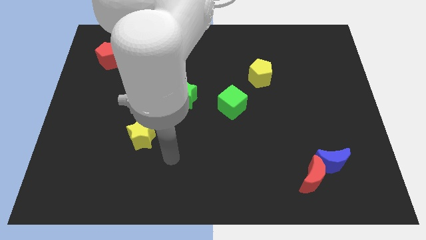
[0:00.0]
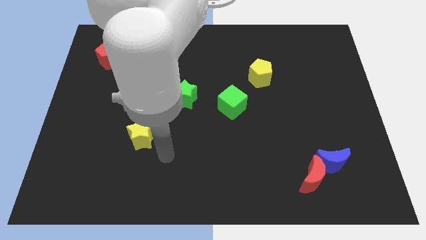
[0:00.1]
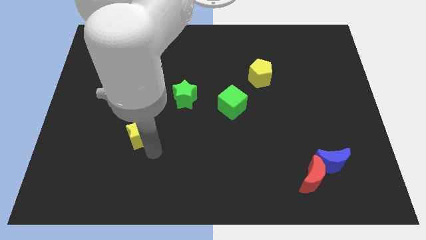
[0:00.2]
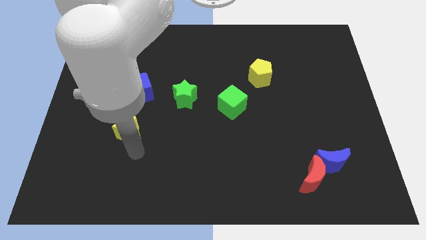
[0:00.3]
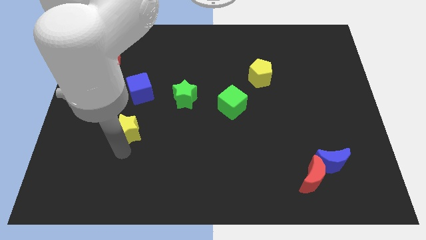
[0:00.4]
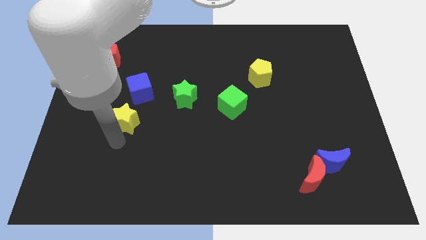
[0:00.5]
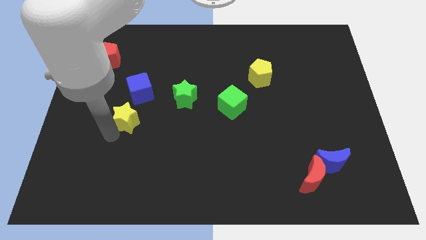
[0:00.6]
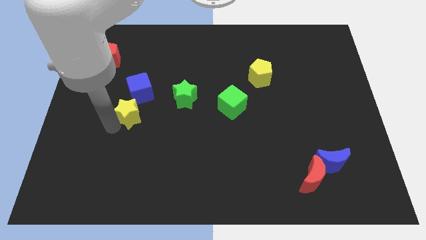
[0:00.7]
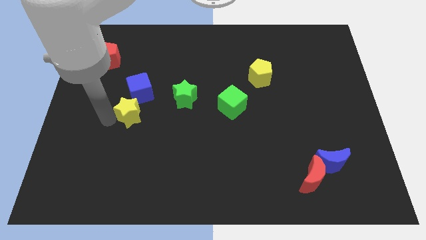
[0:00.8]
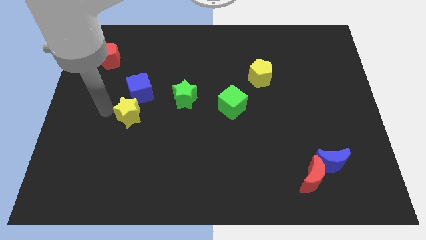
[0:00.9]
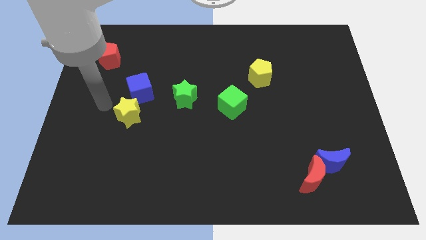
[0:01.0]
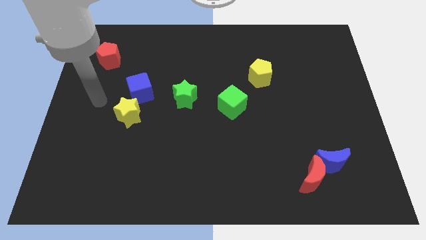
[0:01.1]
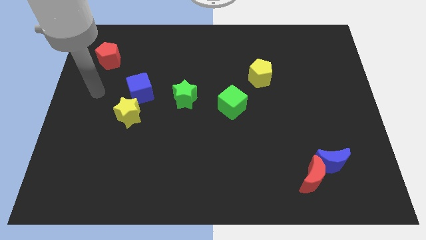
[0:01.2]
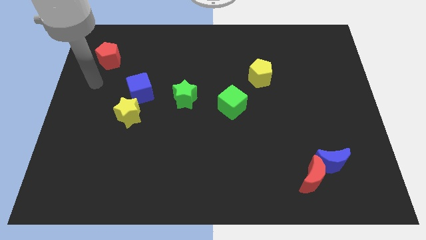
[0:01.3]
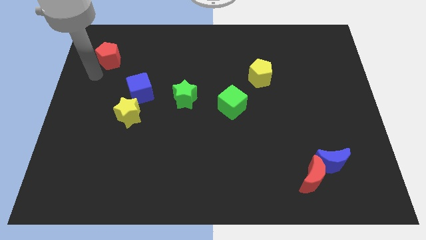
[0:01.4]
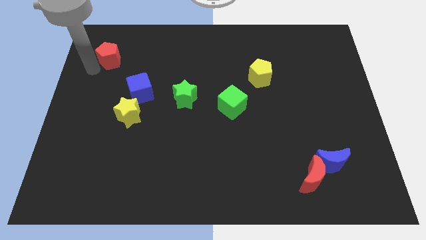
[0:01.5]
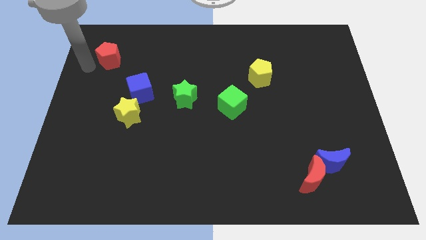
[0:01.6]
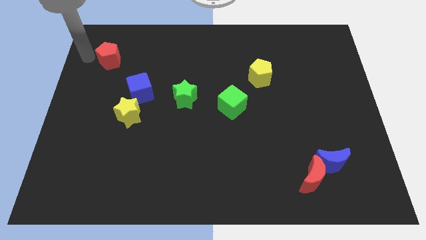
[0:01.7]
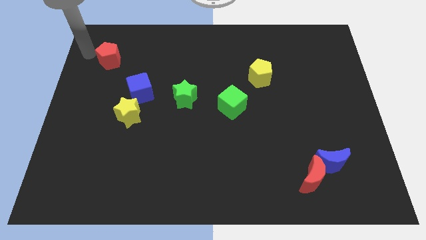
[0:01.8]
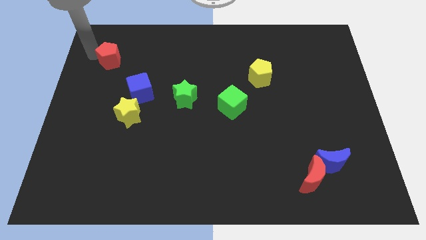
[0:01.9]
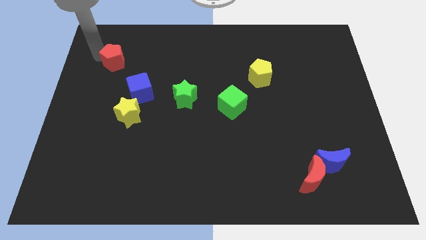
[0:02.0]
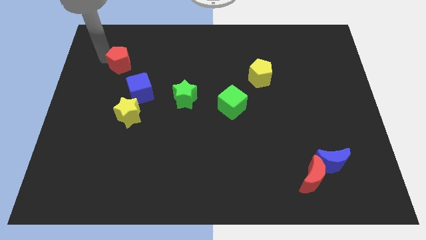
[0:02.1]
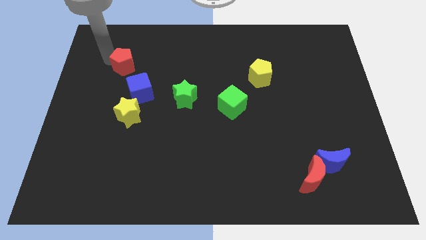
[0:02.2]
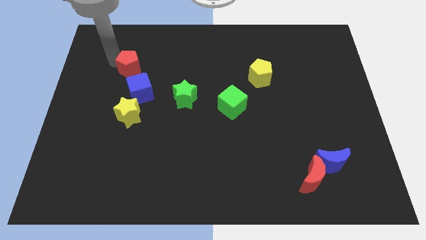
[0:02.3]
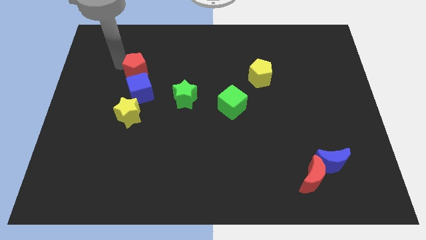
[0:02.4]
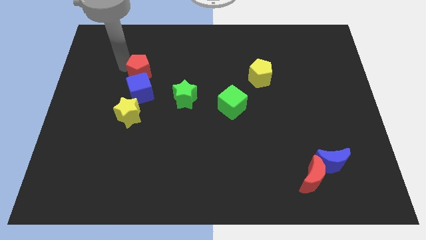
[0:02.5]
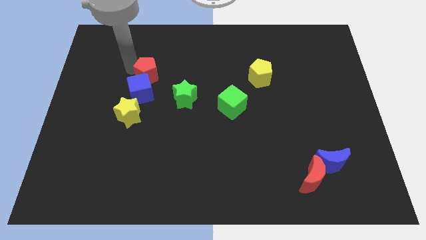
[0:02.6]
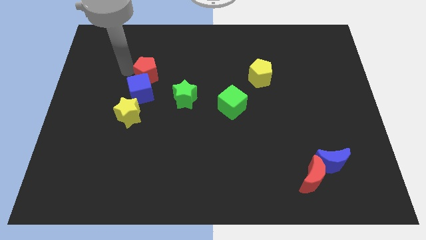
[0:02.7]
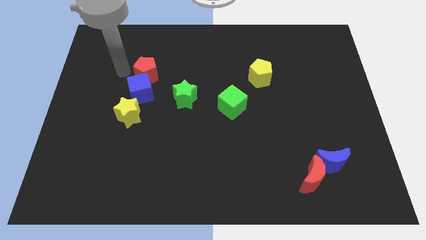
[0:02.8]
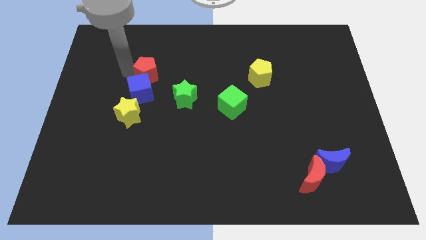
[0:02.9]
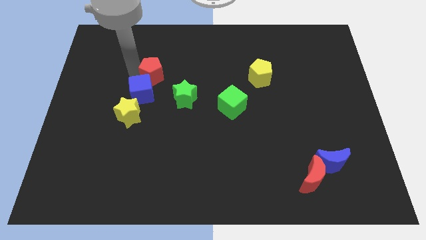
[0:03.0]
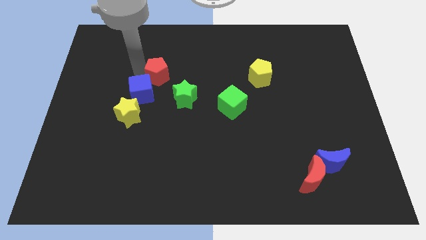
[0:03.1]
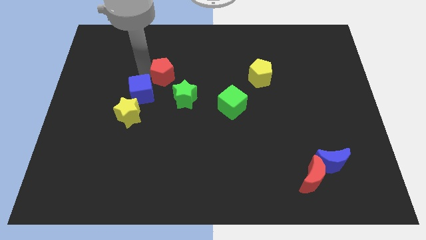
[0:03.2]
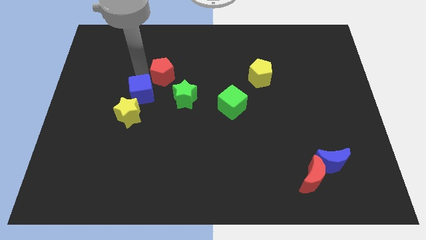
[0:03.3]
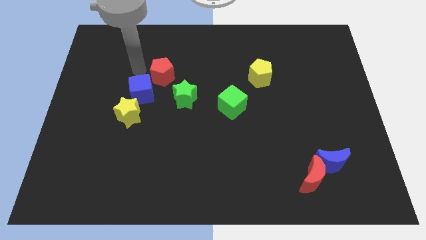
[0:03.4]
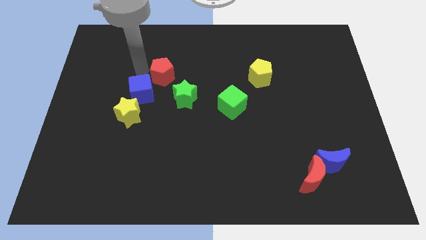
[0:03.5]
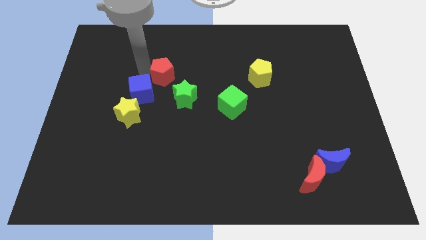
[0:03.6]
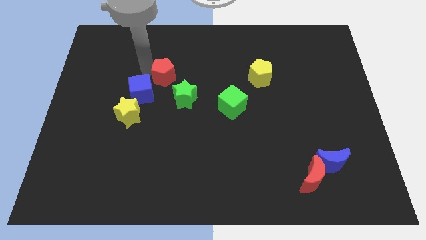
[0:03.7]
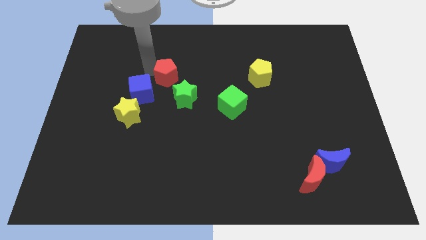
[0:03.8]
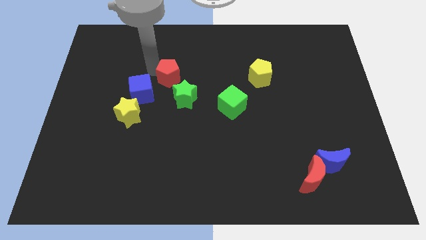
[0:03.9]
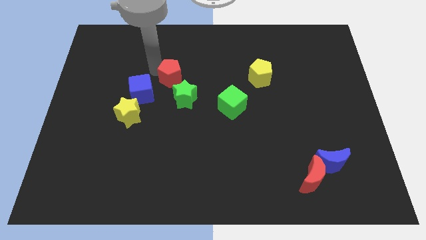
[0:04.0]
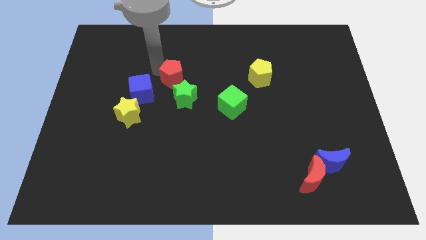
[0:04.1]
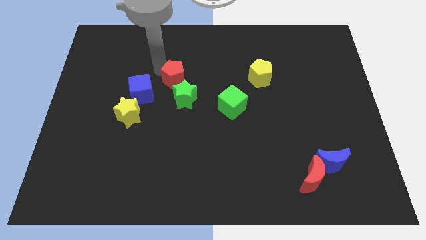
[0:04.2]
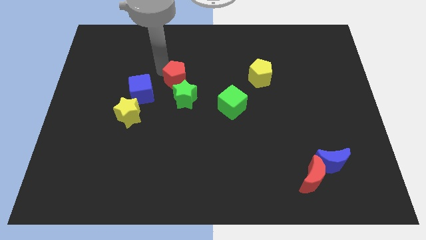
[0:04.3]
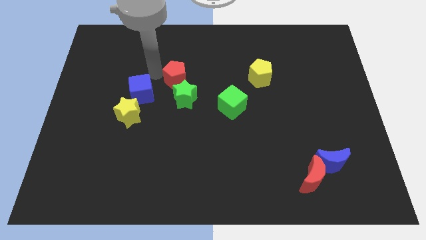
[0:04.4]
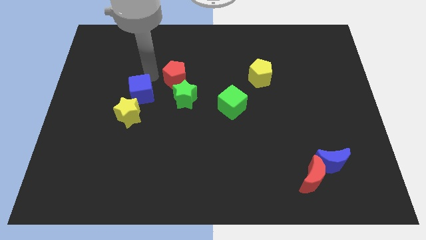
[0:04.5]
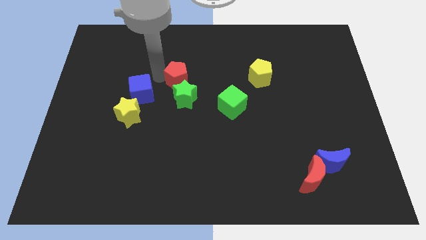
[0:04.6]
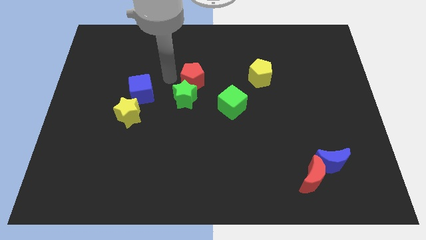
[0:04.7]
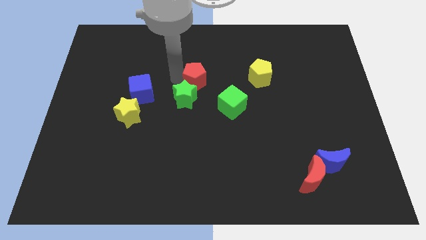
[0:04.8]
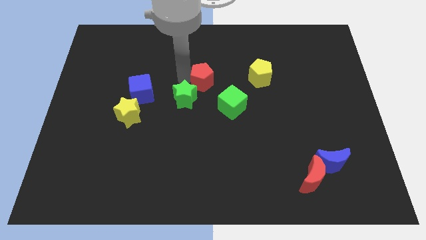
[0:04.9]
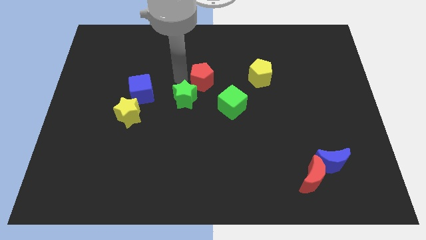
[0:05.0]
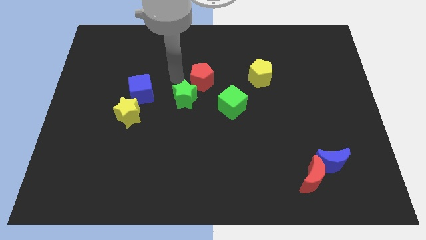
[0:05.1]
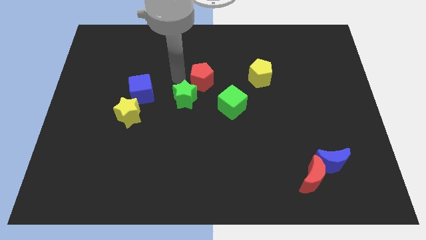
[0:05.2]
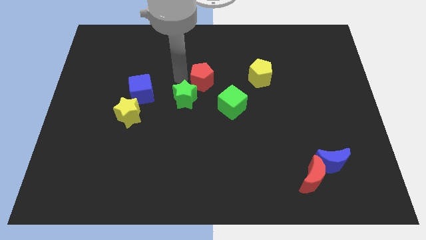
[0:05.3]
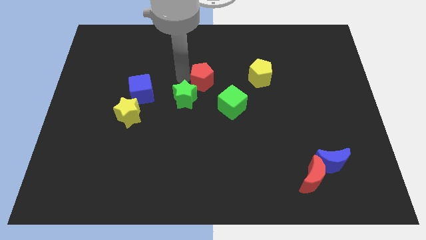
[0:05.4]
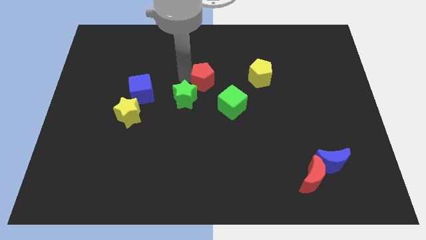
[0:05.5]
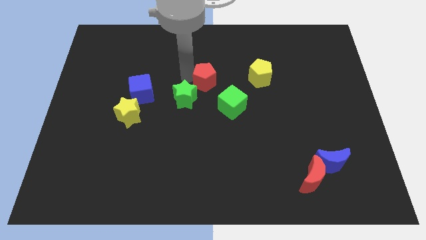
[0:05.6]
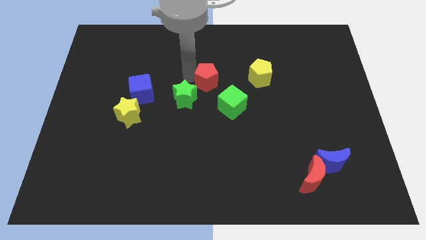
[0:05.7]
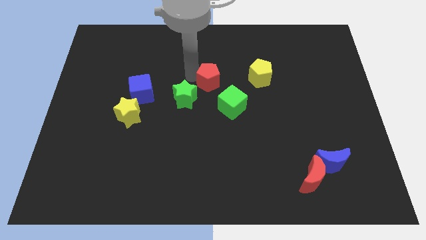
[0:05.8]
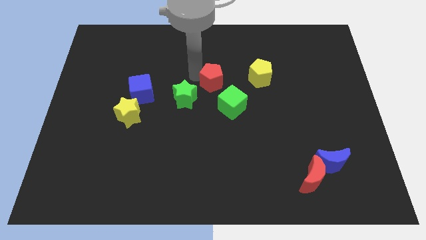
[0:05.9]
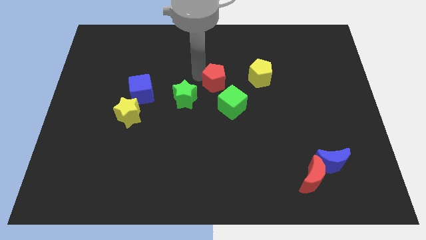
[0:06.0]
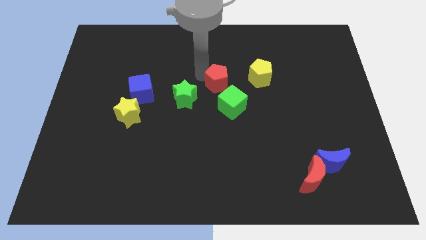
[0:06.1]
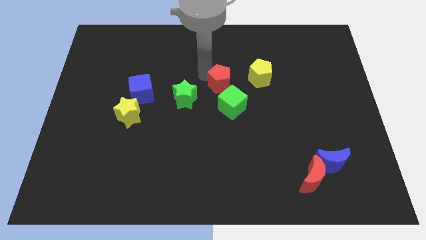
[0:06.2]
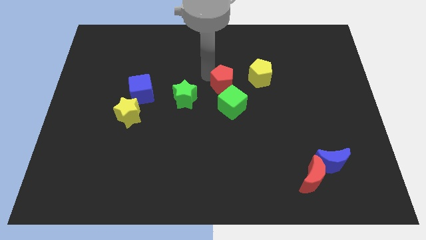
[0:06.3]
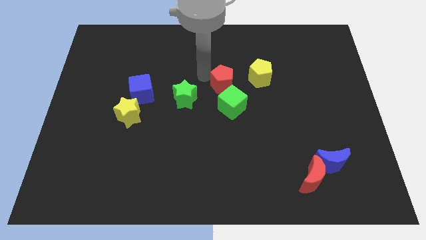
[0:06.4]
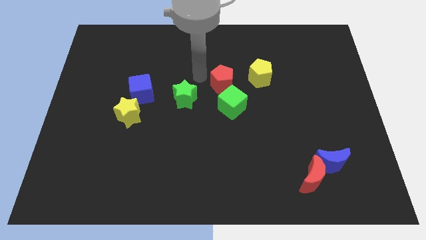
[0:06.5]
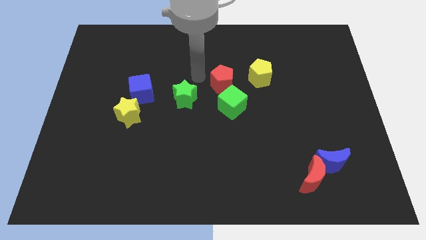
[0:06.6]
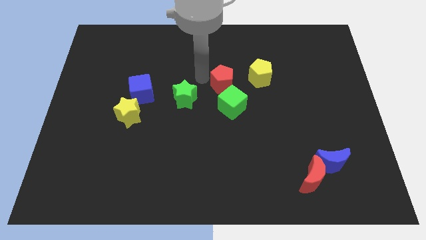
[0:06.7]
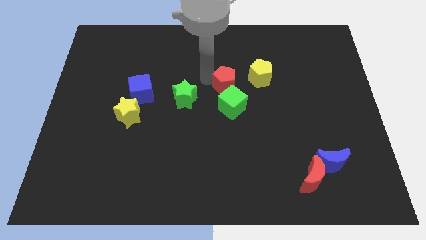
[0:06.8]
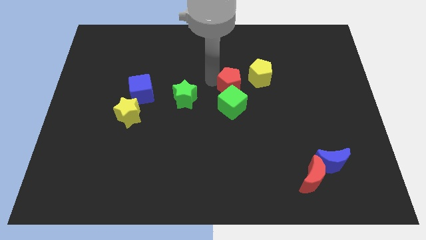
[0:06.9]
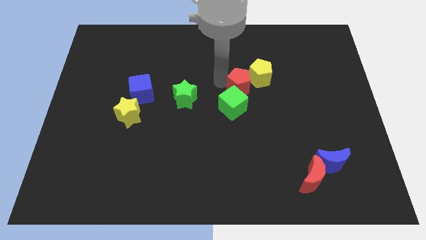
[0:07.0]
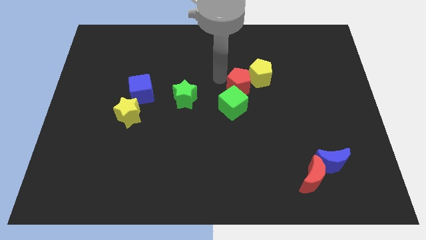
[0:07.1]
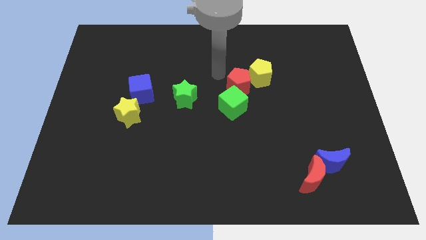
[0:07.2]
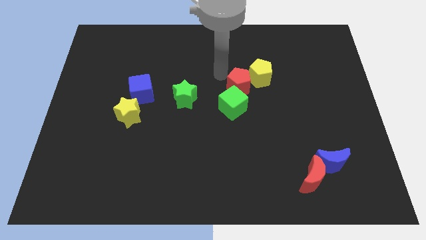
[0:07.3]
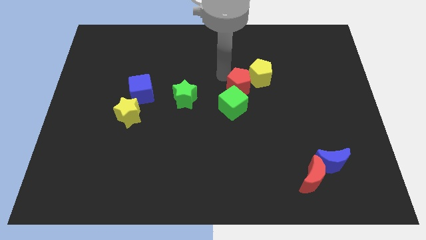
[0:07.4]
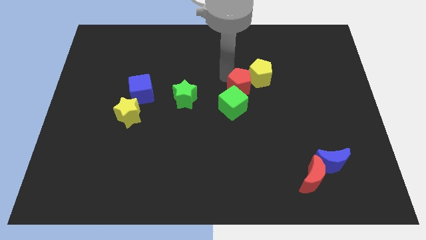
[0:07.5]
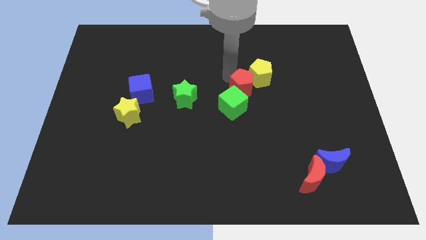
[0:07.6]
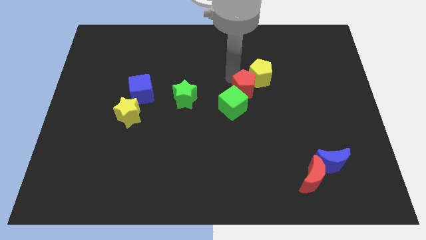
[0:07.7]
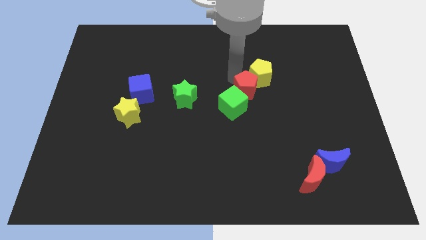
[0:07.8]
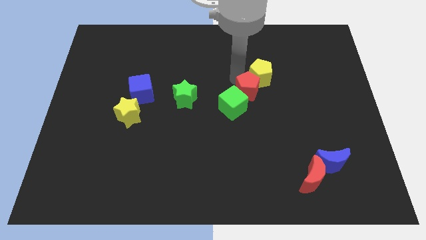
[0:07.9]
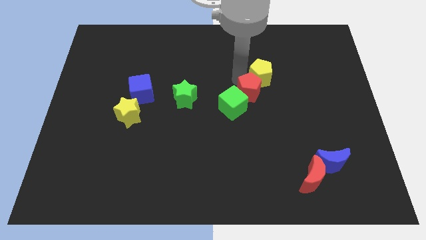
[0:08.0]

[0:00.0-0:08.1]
put the red pentagon to the right side of the green cube
